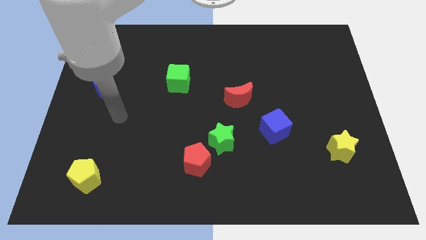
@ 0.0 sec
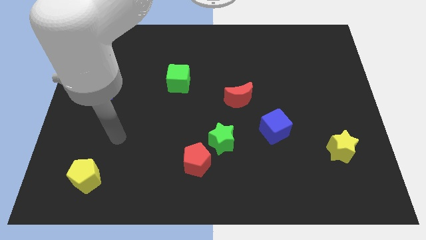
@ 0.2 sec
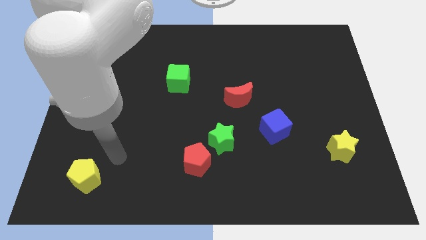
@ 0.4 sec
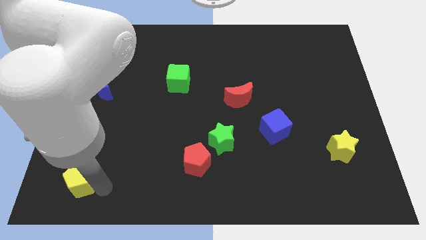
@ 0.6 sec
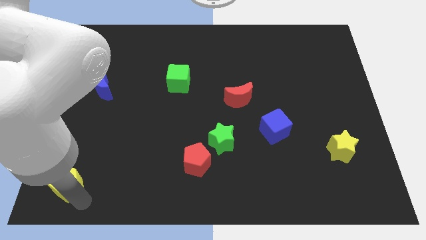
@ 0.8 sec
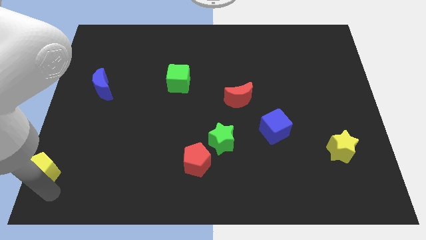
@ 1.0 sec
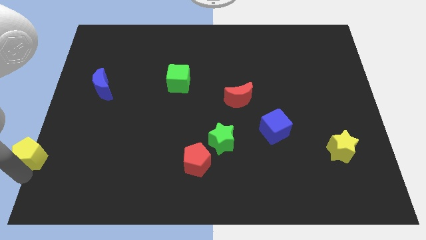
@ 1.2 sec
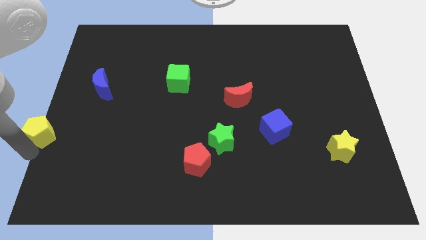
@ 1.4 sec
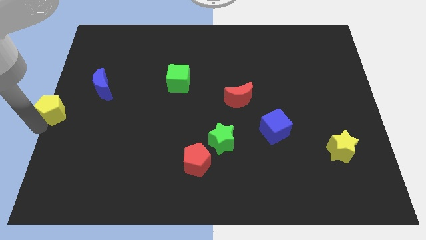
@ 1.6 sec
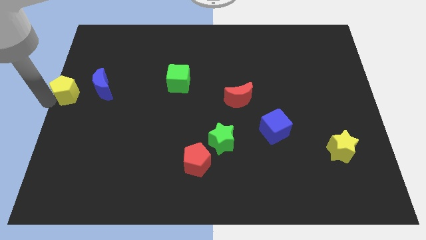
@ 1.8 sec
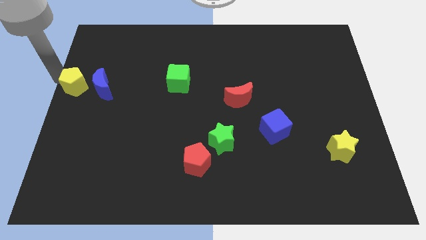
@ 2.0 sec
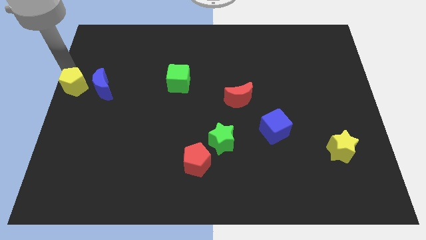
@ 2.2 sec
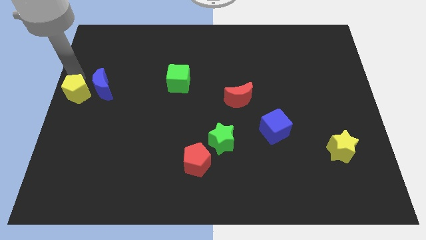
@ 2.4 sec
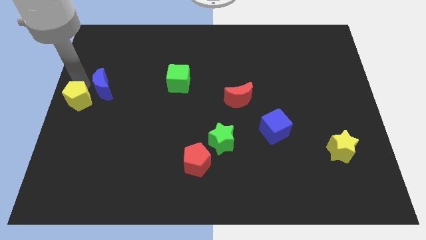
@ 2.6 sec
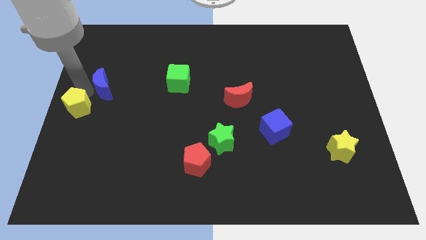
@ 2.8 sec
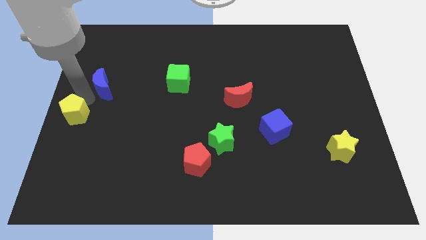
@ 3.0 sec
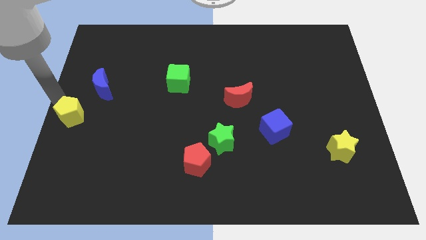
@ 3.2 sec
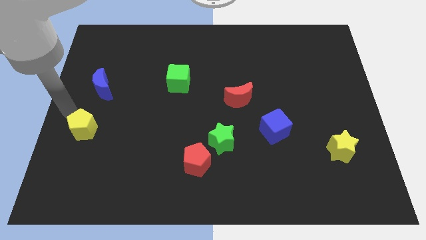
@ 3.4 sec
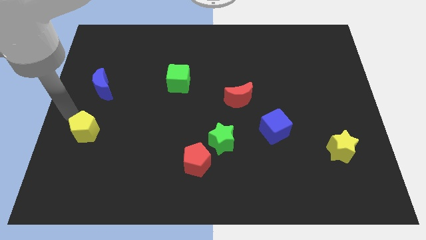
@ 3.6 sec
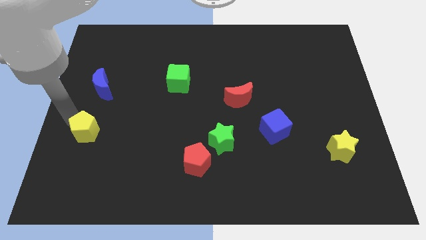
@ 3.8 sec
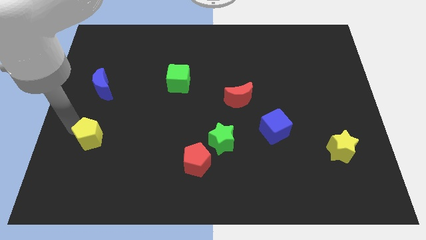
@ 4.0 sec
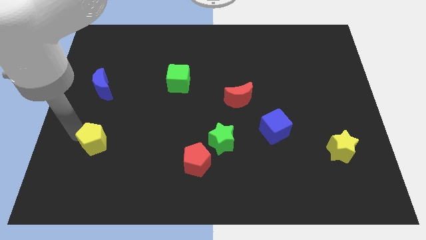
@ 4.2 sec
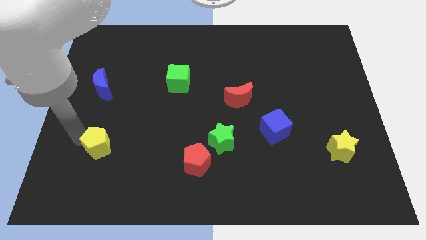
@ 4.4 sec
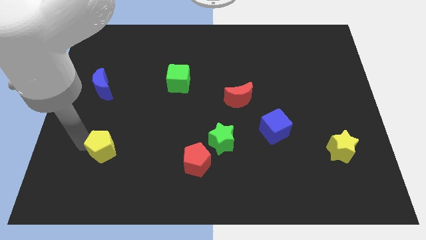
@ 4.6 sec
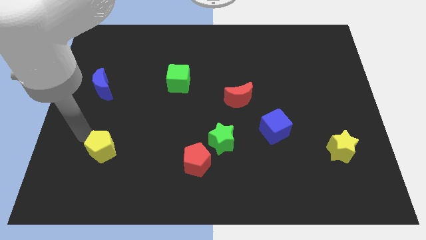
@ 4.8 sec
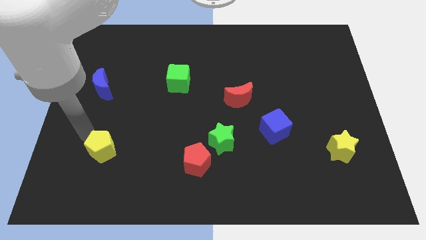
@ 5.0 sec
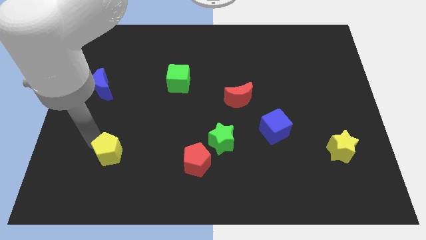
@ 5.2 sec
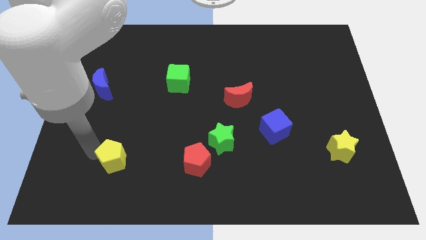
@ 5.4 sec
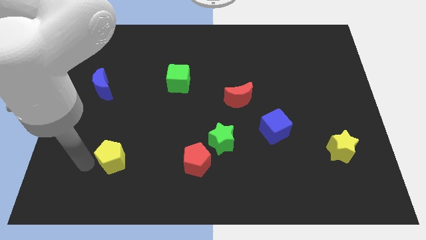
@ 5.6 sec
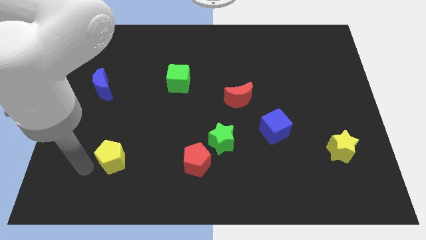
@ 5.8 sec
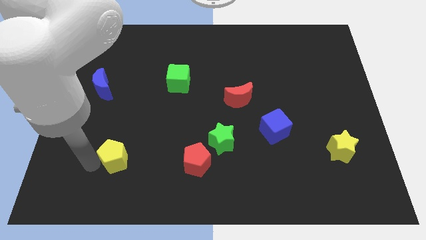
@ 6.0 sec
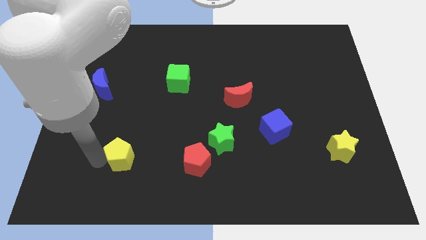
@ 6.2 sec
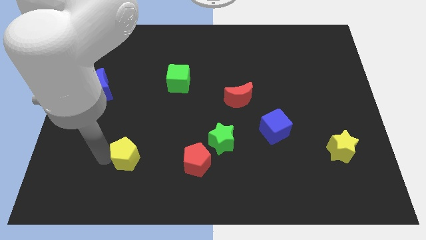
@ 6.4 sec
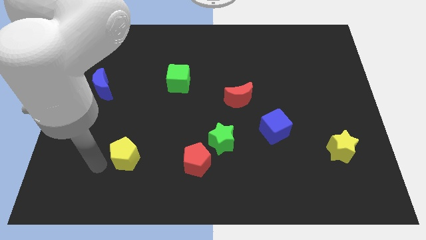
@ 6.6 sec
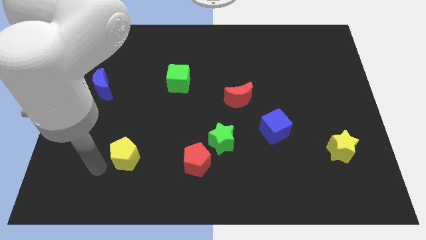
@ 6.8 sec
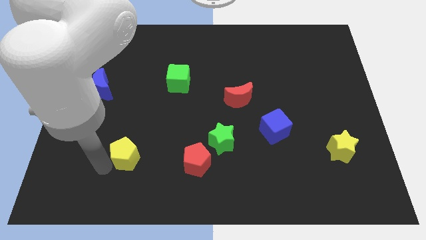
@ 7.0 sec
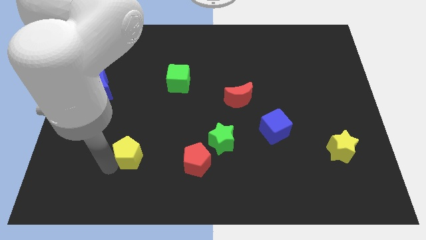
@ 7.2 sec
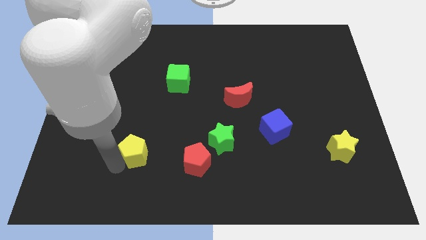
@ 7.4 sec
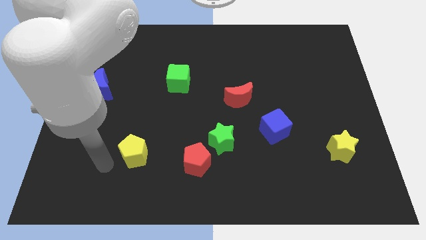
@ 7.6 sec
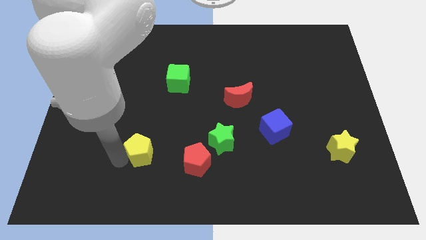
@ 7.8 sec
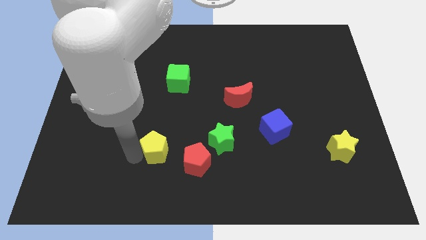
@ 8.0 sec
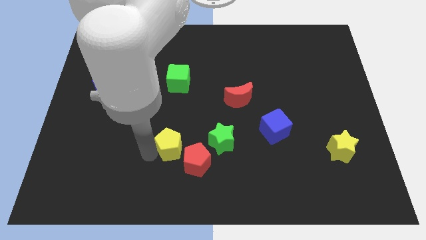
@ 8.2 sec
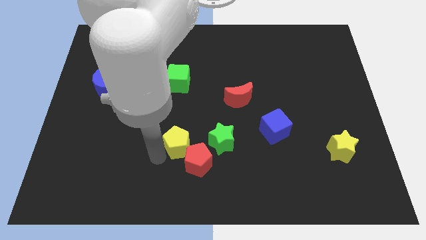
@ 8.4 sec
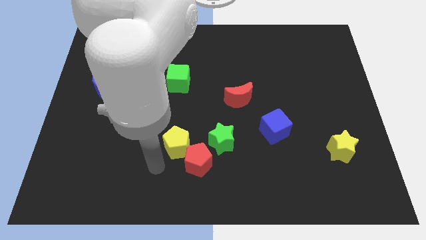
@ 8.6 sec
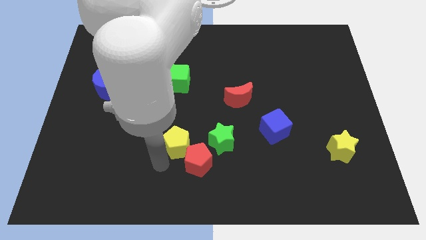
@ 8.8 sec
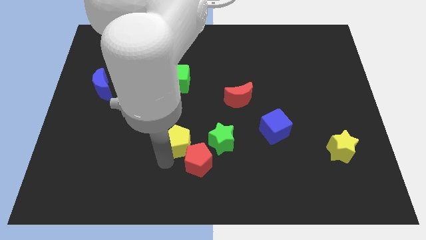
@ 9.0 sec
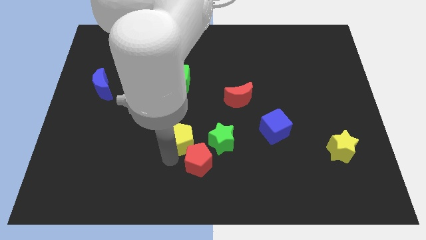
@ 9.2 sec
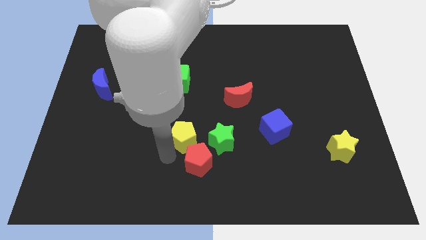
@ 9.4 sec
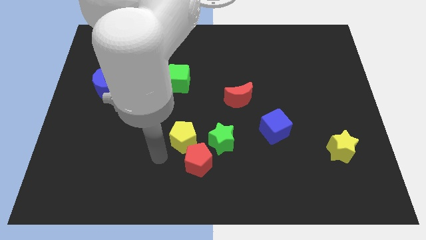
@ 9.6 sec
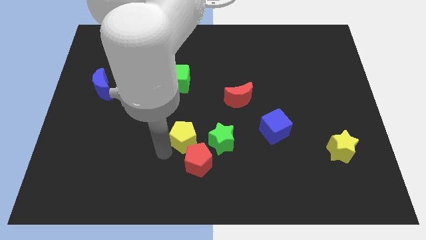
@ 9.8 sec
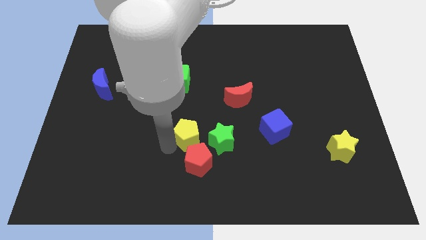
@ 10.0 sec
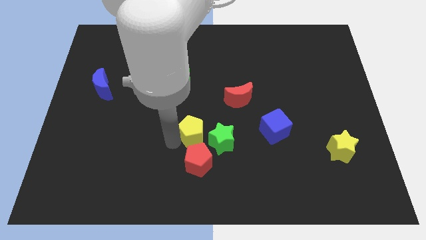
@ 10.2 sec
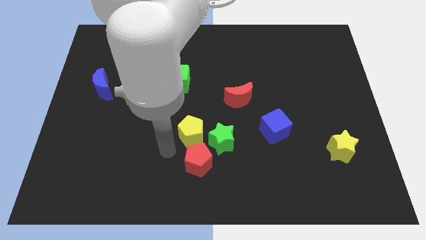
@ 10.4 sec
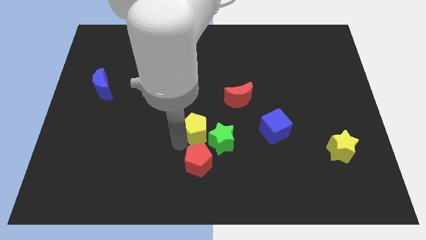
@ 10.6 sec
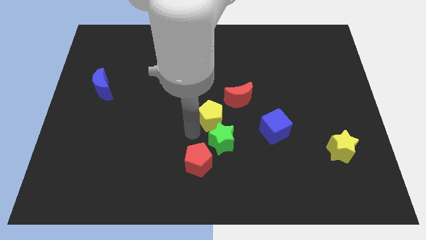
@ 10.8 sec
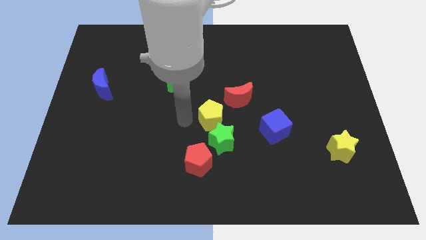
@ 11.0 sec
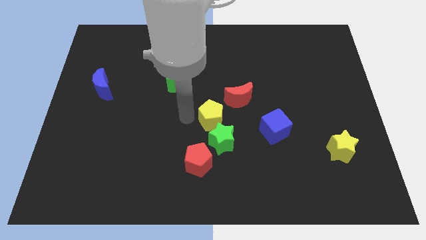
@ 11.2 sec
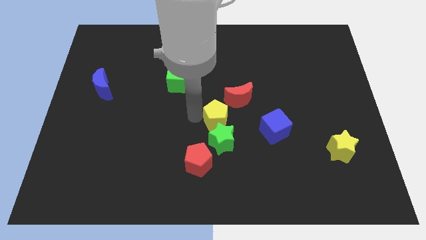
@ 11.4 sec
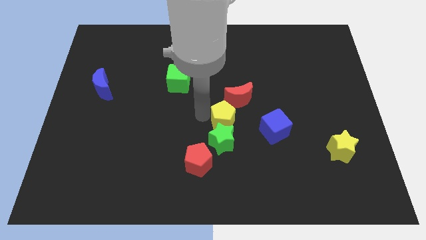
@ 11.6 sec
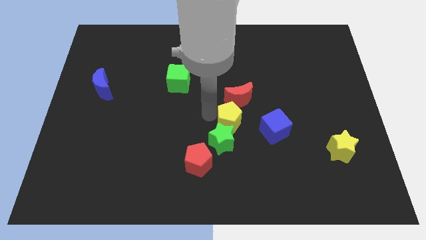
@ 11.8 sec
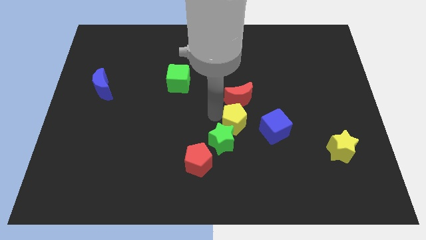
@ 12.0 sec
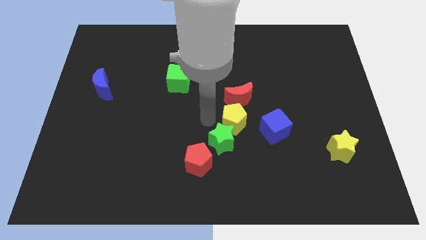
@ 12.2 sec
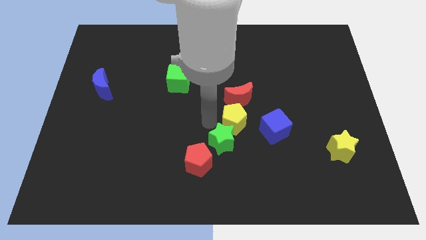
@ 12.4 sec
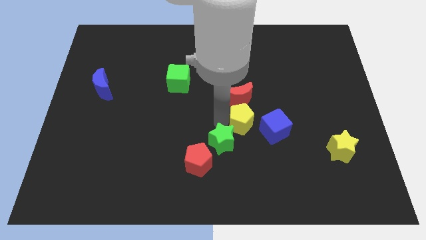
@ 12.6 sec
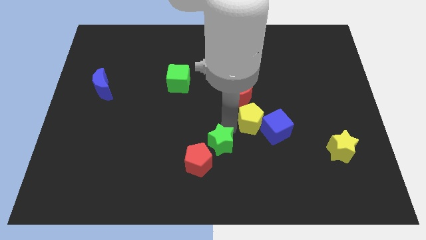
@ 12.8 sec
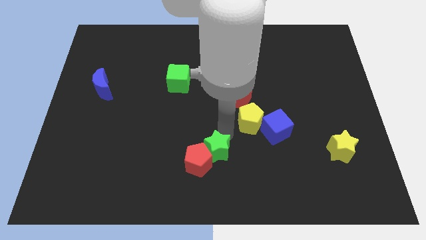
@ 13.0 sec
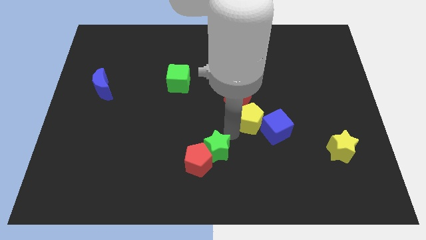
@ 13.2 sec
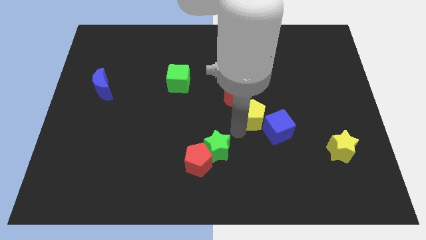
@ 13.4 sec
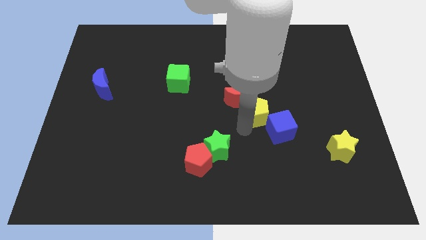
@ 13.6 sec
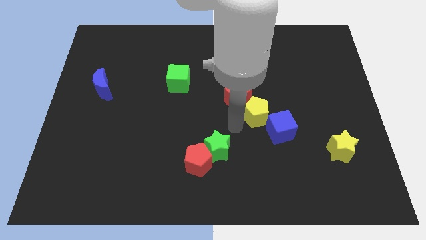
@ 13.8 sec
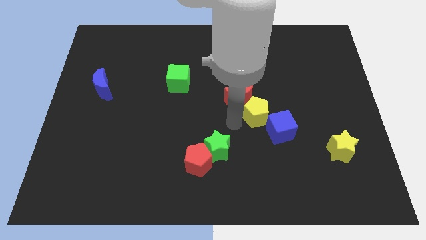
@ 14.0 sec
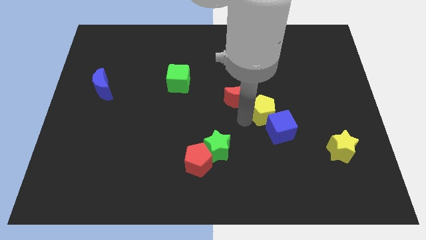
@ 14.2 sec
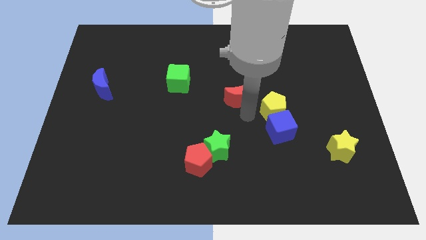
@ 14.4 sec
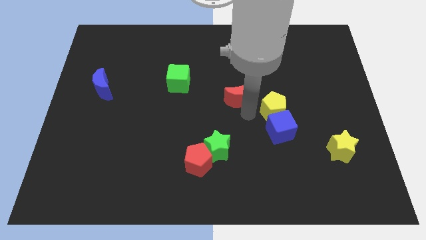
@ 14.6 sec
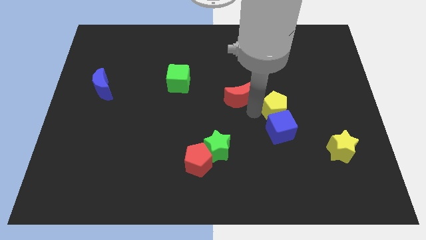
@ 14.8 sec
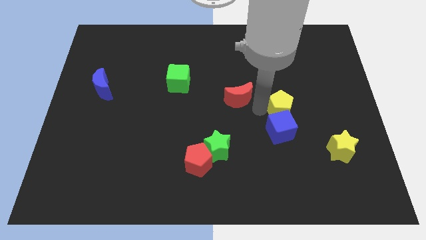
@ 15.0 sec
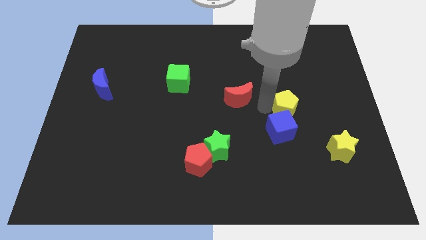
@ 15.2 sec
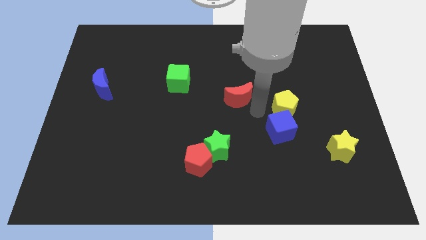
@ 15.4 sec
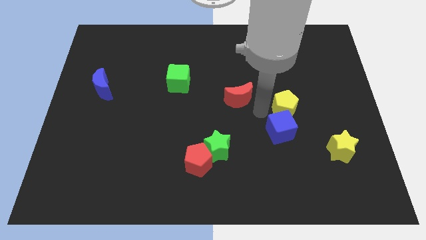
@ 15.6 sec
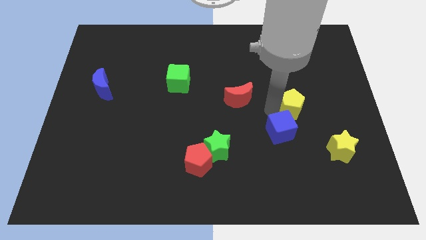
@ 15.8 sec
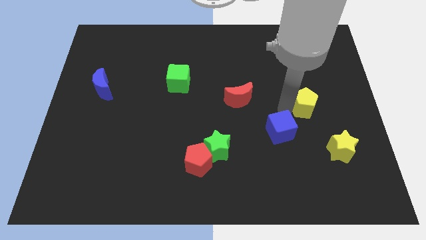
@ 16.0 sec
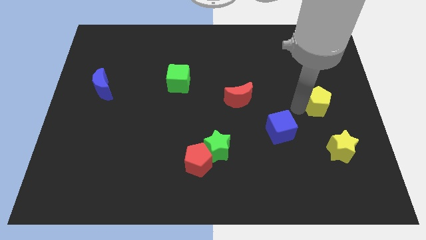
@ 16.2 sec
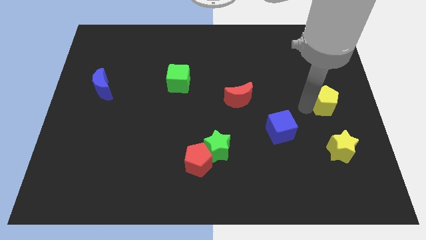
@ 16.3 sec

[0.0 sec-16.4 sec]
push the yellow pentagon to the right side
